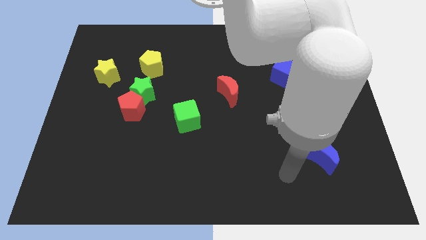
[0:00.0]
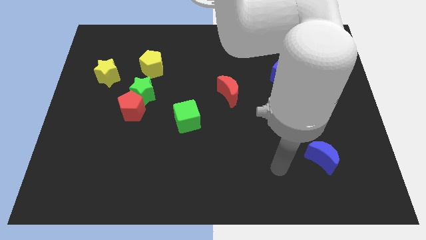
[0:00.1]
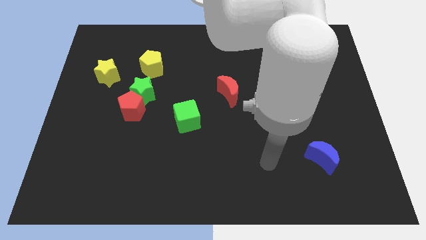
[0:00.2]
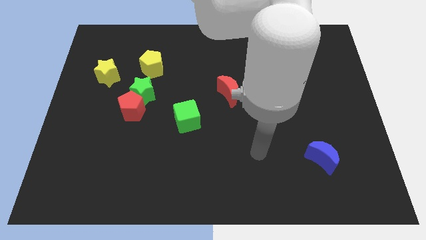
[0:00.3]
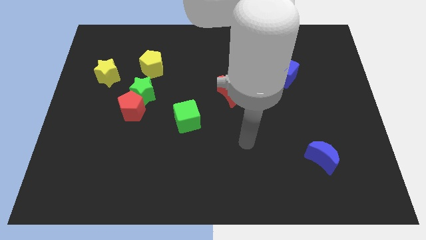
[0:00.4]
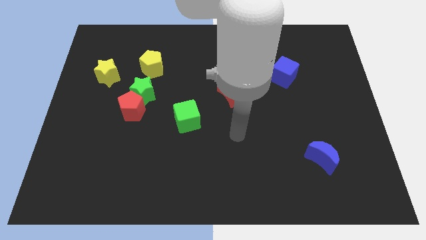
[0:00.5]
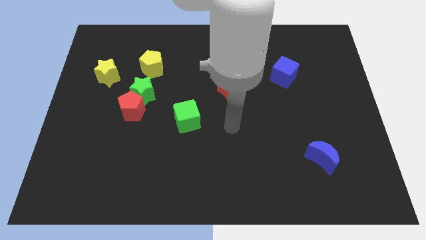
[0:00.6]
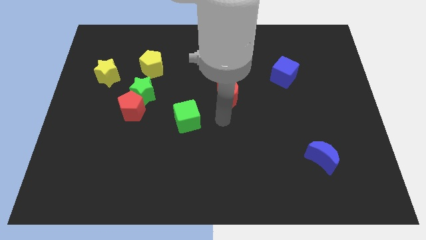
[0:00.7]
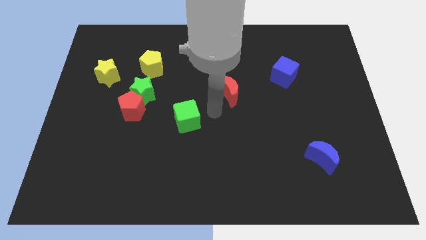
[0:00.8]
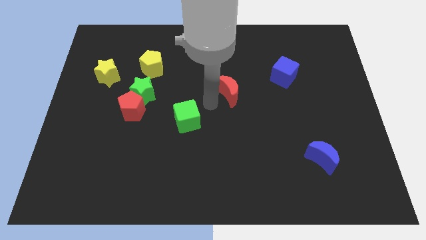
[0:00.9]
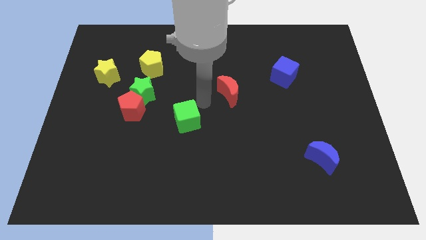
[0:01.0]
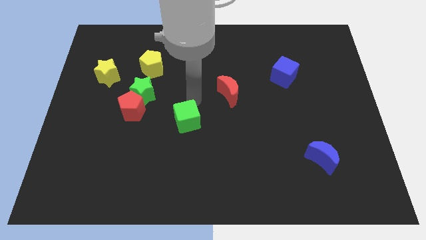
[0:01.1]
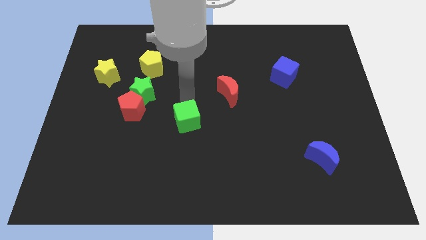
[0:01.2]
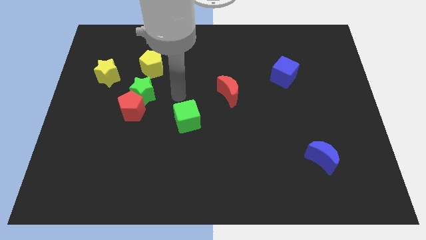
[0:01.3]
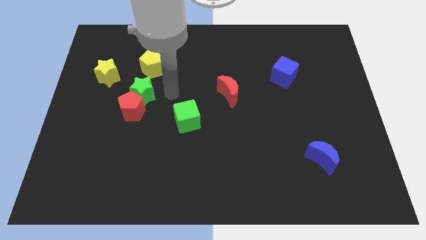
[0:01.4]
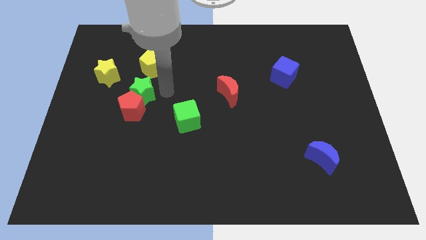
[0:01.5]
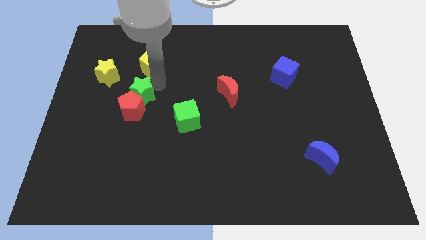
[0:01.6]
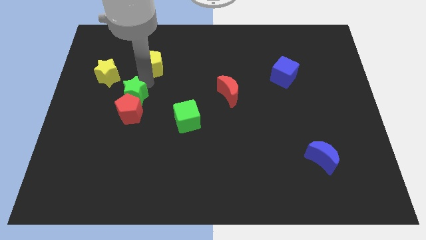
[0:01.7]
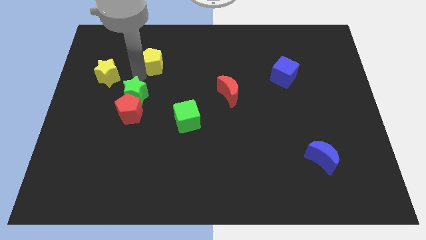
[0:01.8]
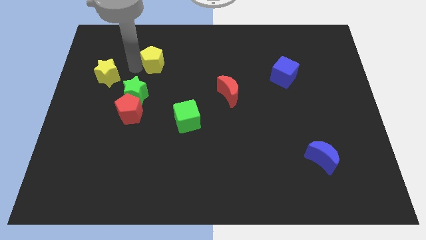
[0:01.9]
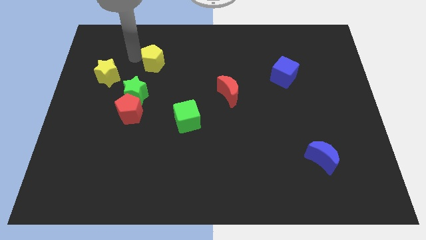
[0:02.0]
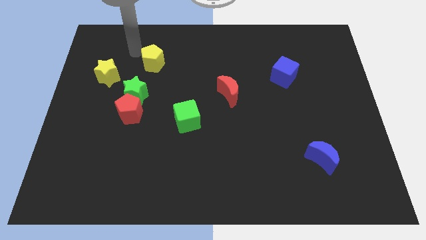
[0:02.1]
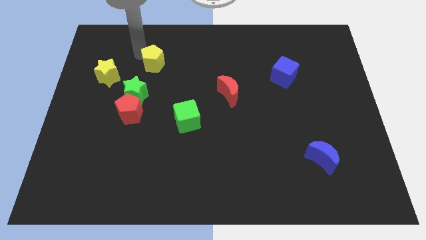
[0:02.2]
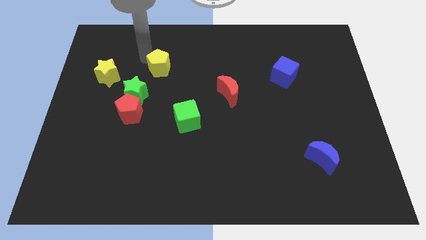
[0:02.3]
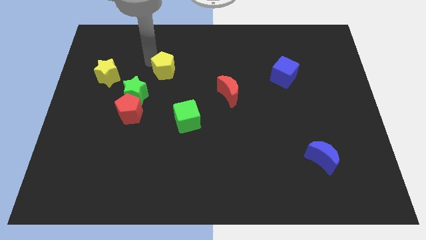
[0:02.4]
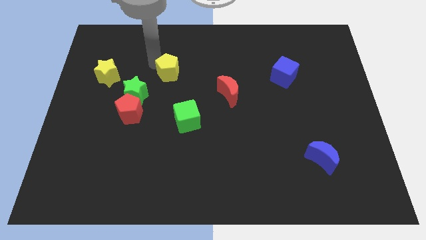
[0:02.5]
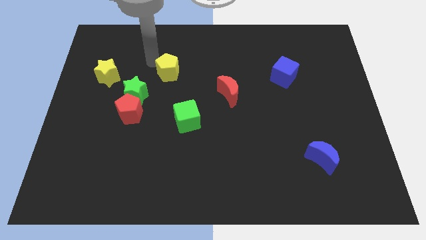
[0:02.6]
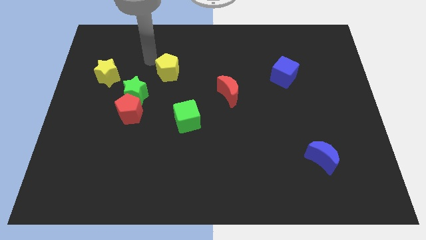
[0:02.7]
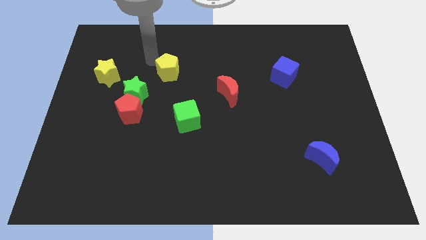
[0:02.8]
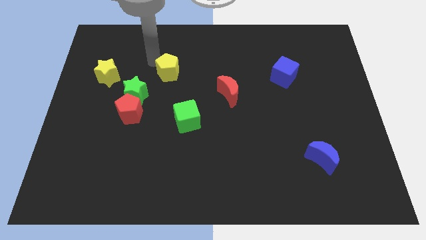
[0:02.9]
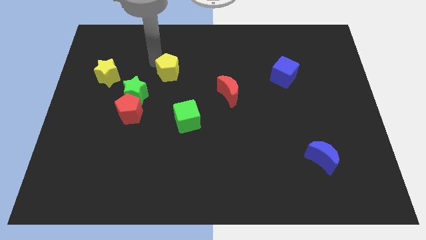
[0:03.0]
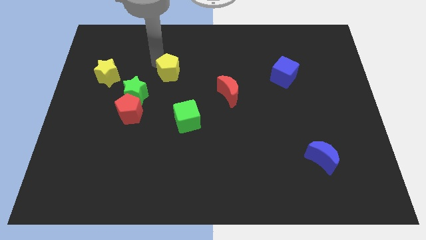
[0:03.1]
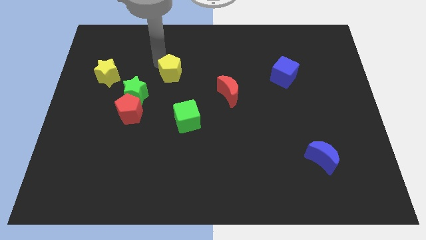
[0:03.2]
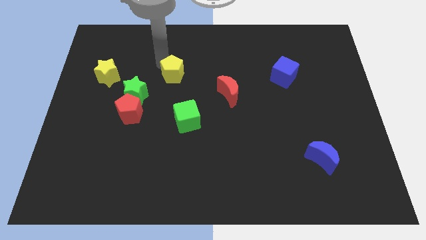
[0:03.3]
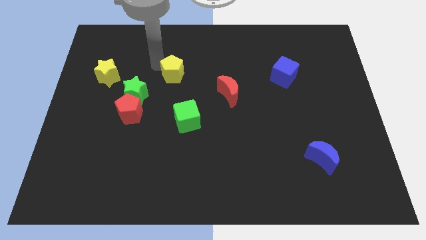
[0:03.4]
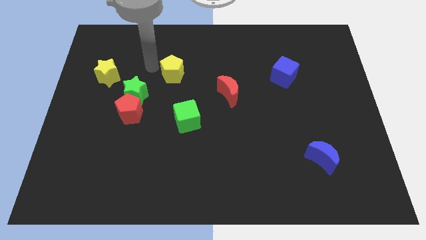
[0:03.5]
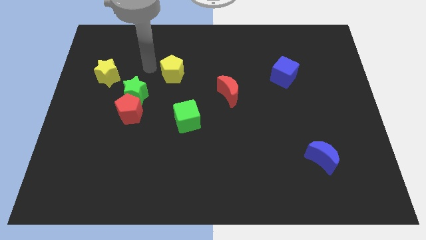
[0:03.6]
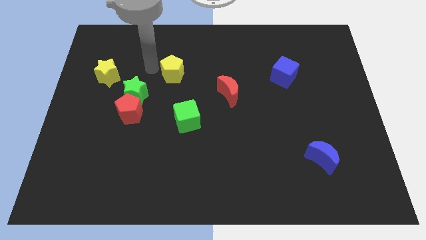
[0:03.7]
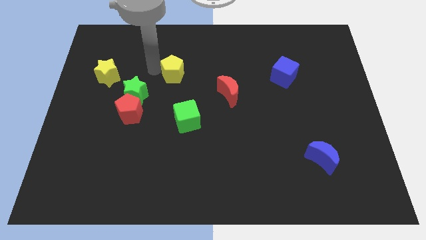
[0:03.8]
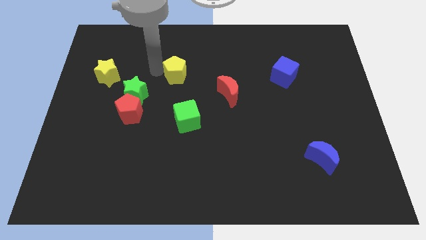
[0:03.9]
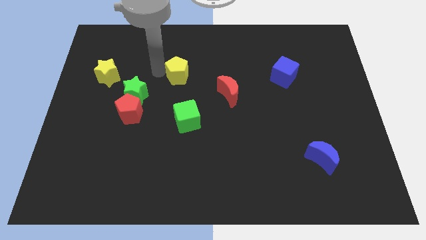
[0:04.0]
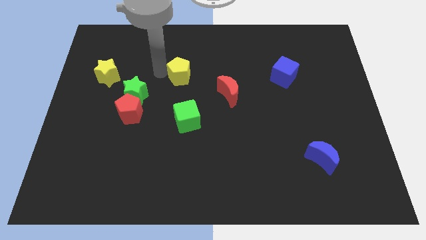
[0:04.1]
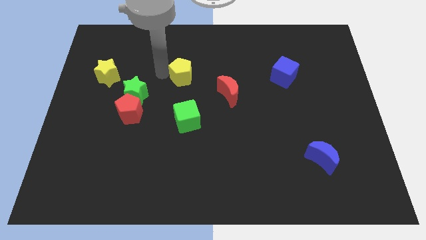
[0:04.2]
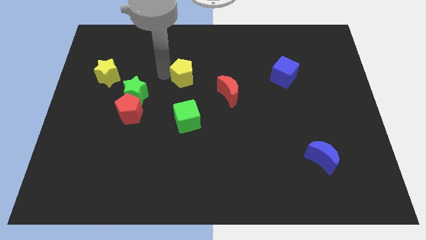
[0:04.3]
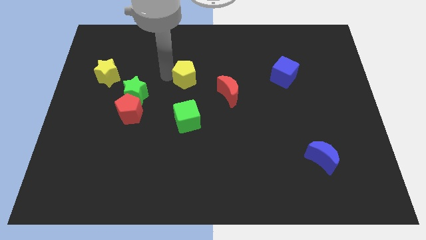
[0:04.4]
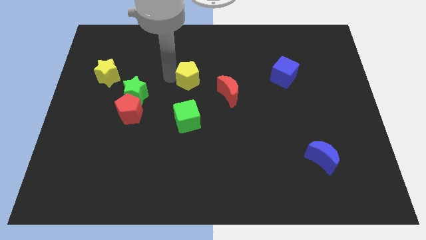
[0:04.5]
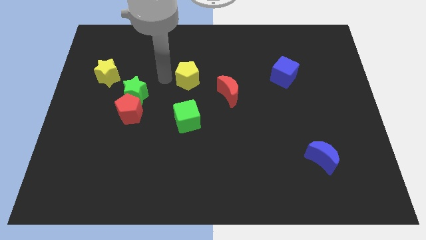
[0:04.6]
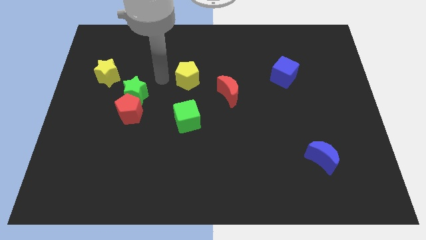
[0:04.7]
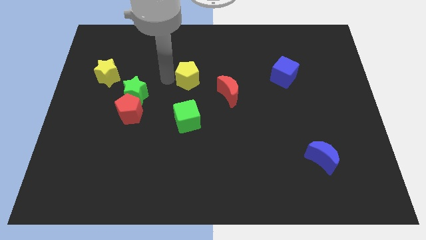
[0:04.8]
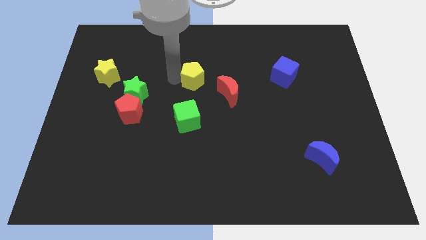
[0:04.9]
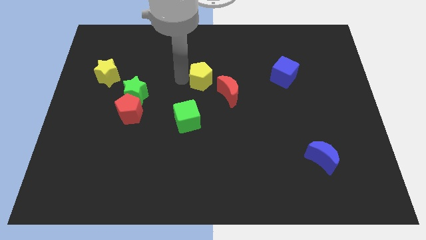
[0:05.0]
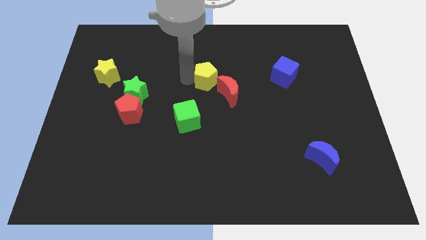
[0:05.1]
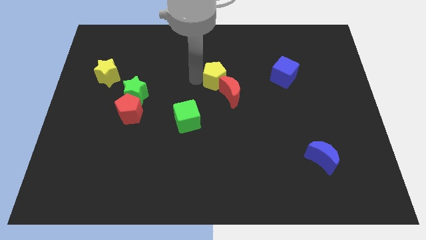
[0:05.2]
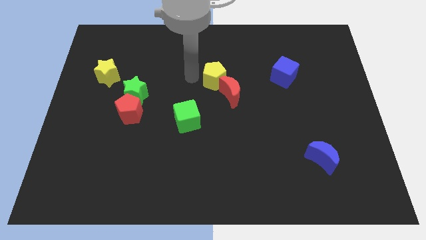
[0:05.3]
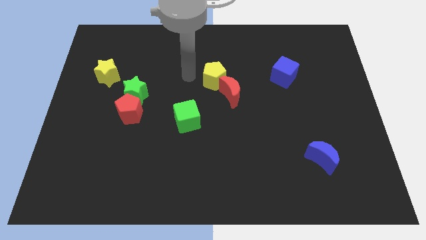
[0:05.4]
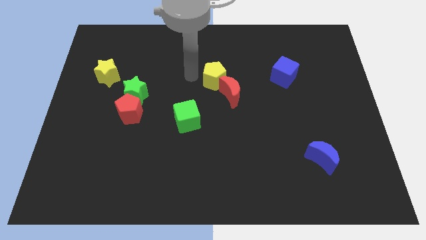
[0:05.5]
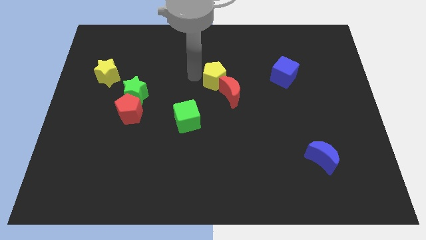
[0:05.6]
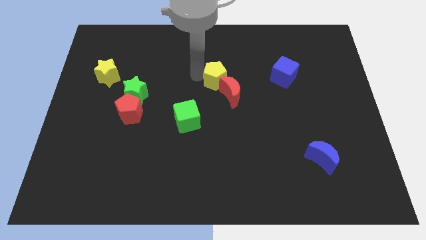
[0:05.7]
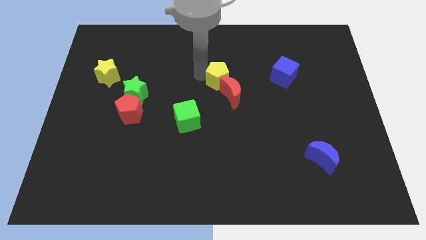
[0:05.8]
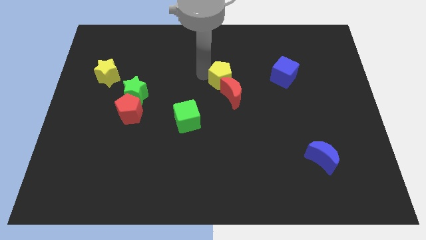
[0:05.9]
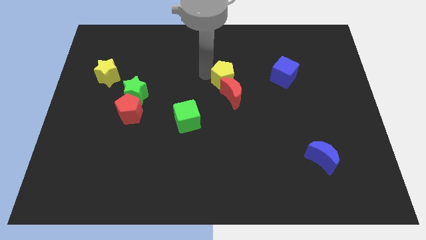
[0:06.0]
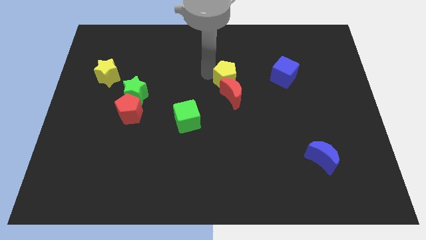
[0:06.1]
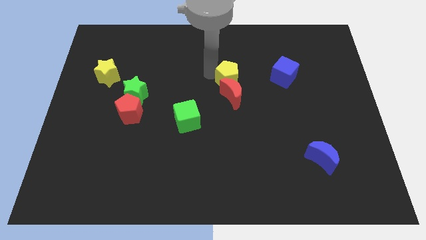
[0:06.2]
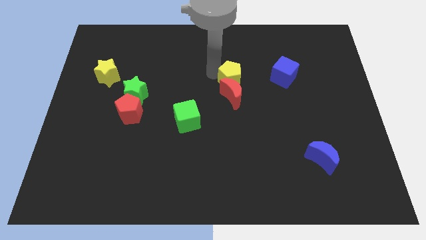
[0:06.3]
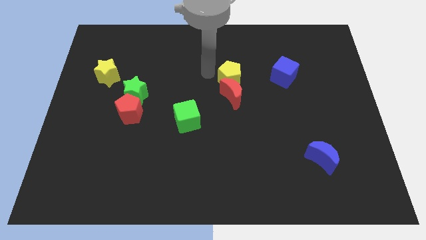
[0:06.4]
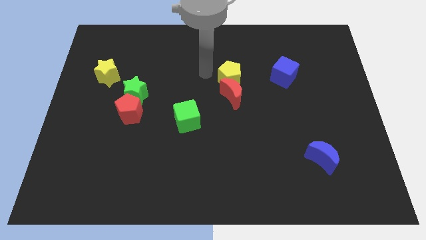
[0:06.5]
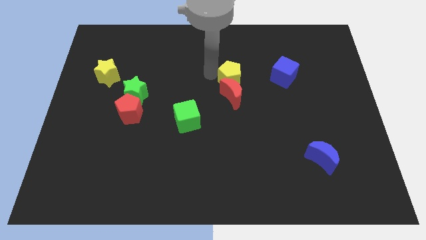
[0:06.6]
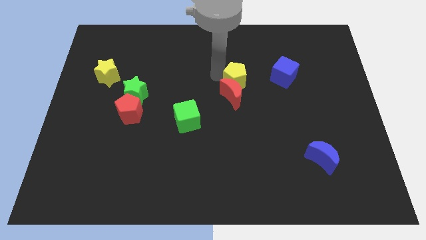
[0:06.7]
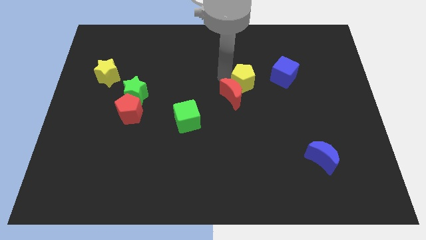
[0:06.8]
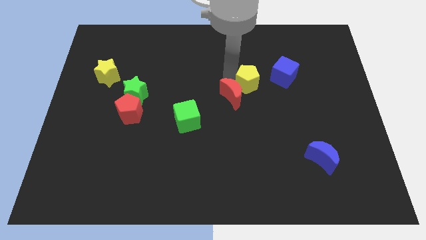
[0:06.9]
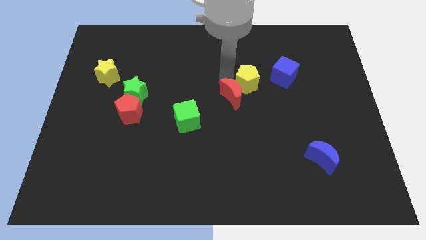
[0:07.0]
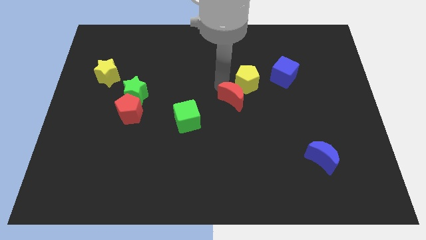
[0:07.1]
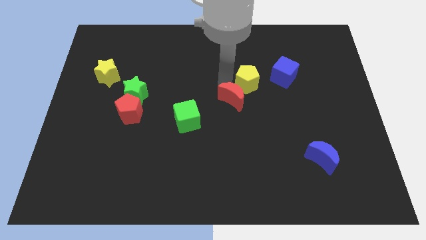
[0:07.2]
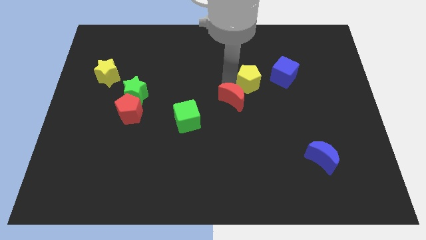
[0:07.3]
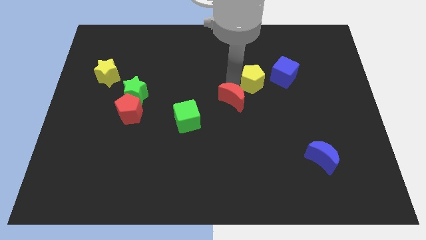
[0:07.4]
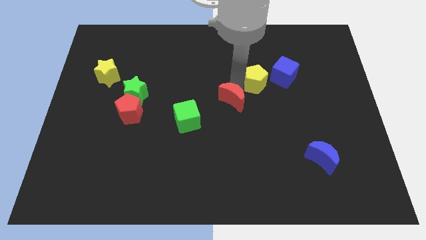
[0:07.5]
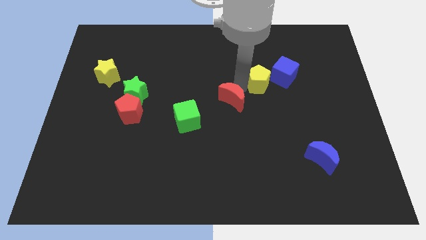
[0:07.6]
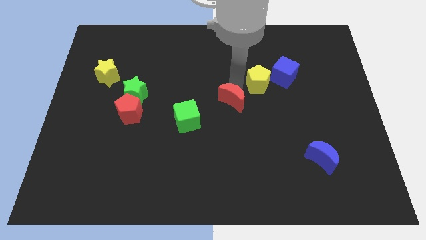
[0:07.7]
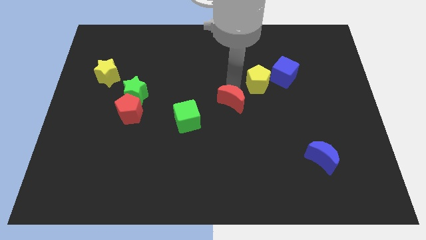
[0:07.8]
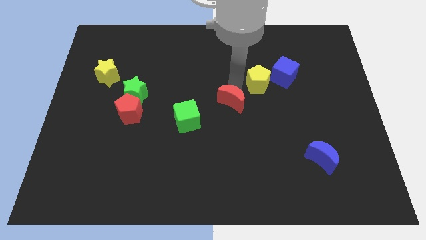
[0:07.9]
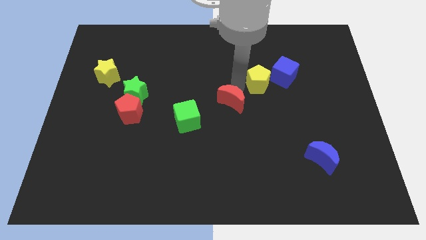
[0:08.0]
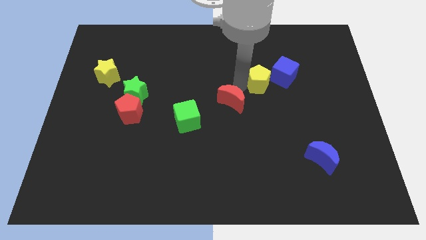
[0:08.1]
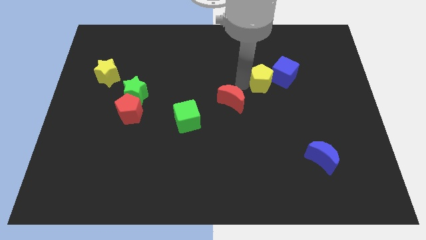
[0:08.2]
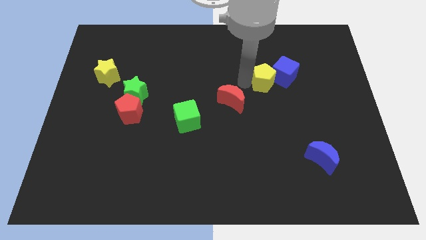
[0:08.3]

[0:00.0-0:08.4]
slide the yellow pentagon close to the blue cube
